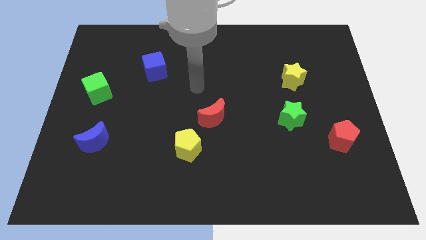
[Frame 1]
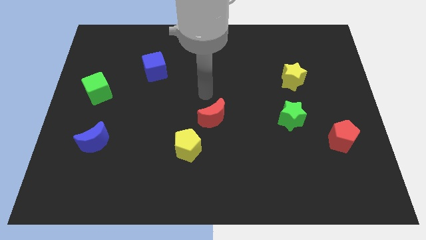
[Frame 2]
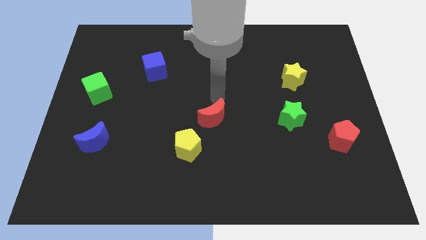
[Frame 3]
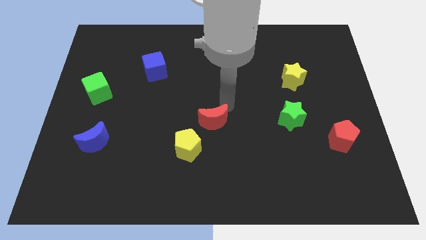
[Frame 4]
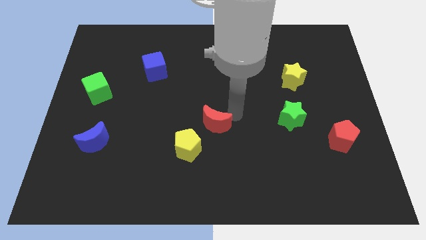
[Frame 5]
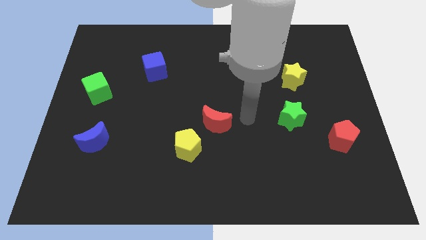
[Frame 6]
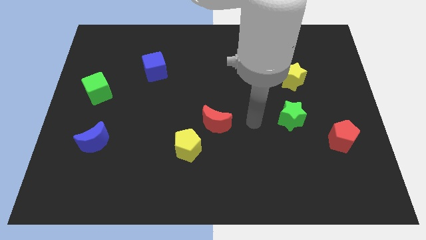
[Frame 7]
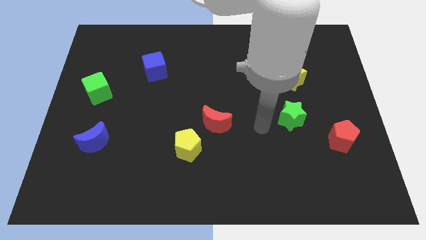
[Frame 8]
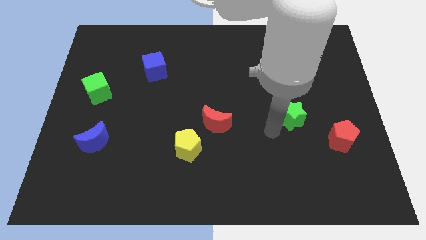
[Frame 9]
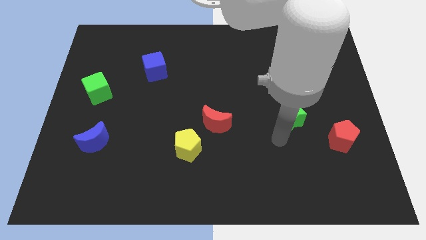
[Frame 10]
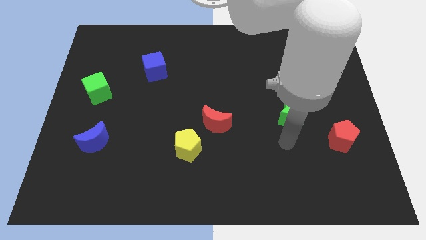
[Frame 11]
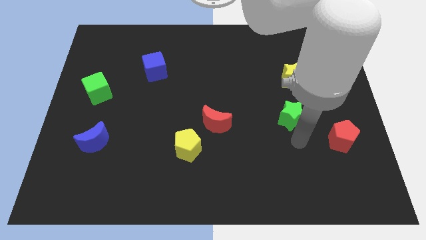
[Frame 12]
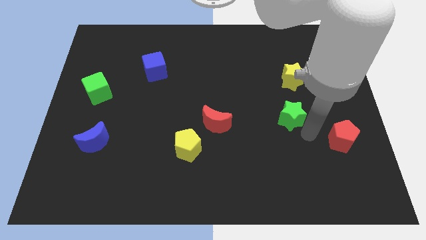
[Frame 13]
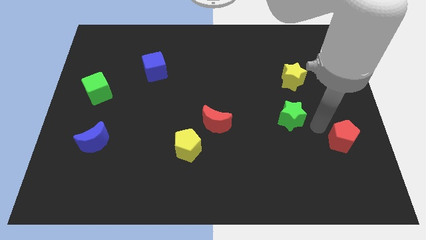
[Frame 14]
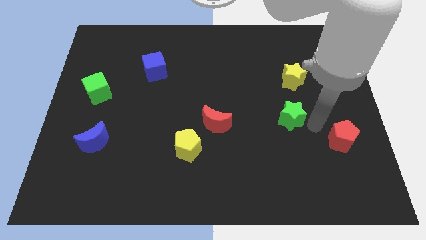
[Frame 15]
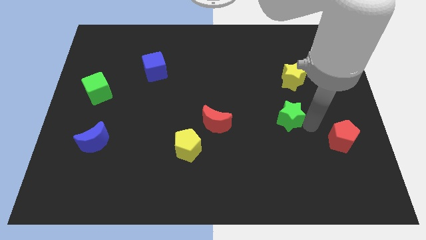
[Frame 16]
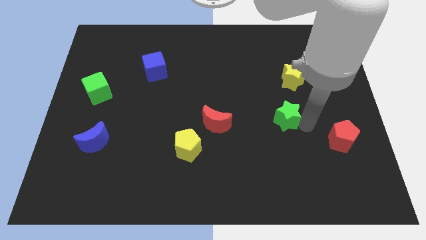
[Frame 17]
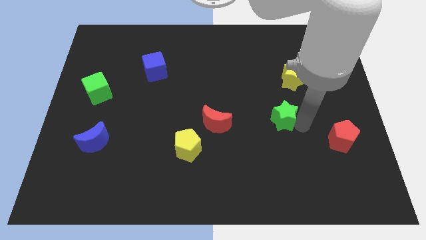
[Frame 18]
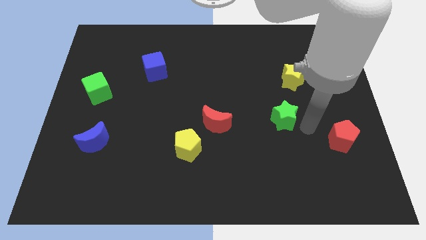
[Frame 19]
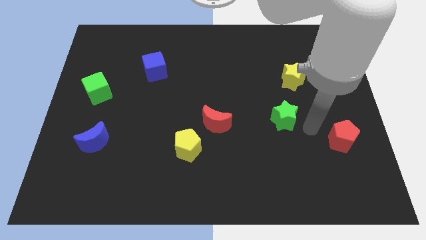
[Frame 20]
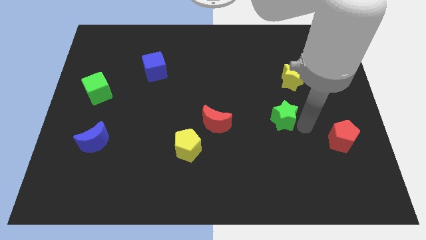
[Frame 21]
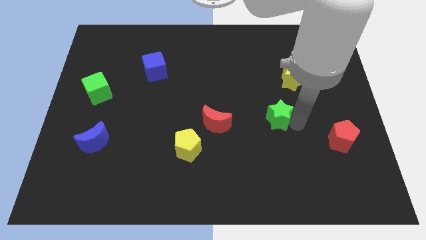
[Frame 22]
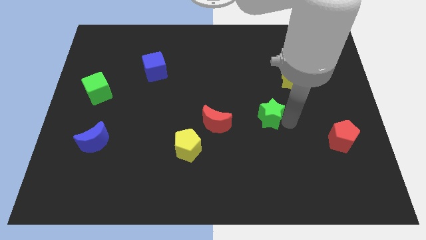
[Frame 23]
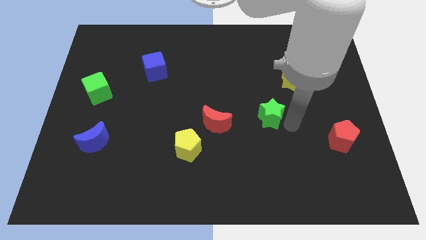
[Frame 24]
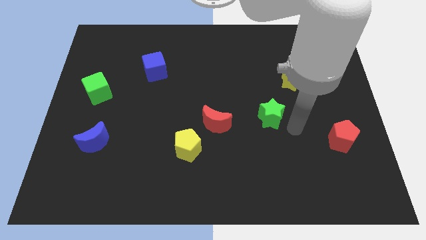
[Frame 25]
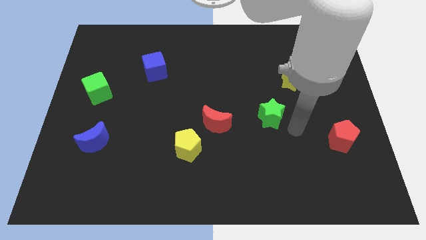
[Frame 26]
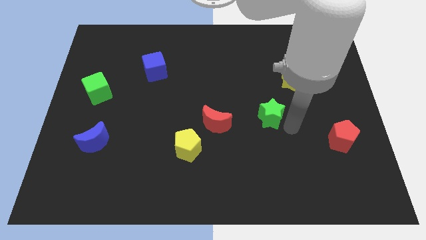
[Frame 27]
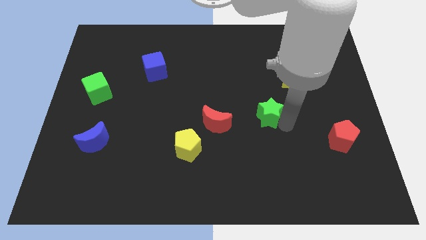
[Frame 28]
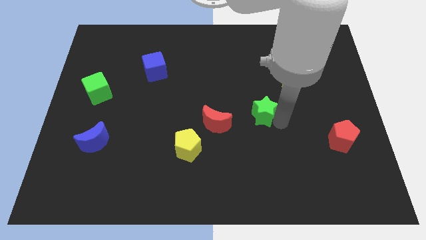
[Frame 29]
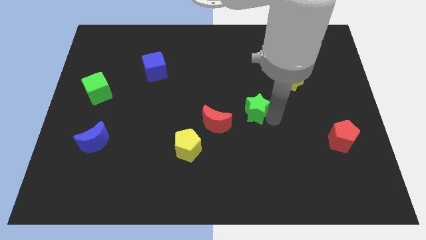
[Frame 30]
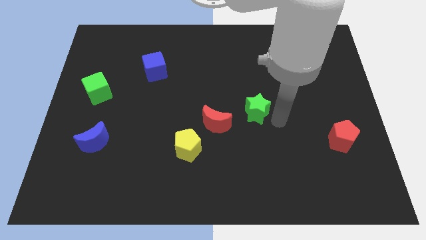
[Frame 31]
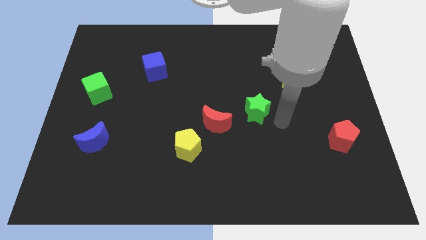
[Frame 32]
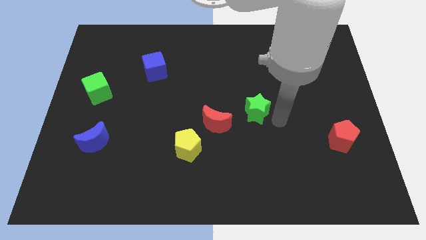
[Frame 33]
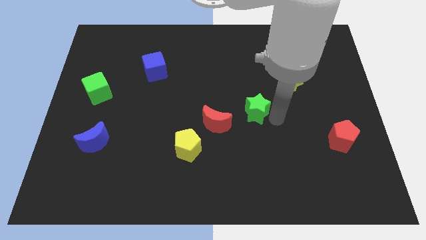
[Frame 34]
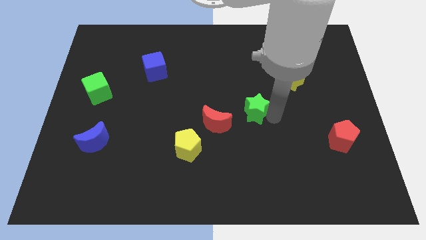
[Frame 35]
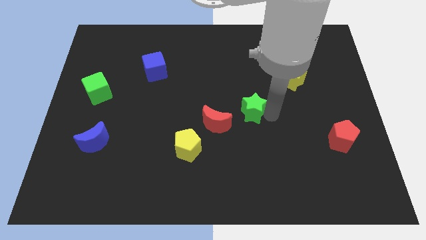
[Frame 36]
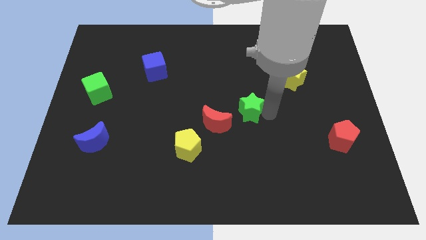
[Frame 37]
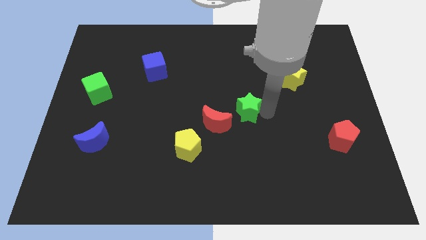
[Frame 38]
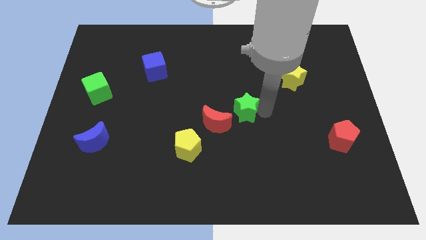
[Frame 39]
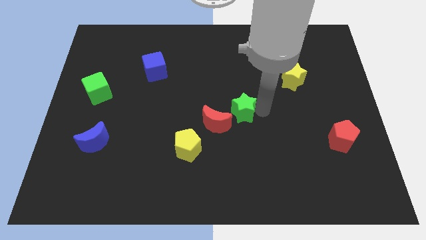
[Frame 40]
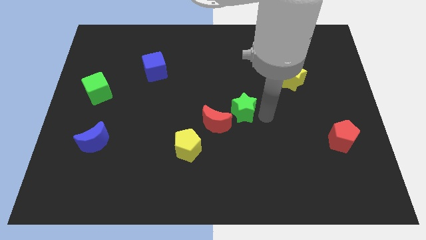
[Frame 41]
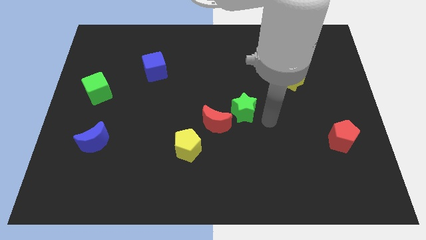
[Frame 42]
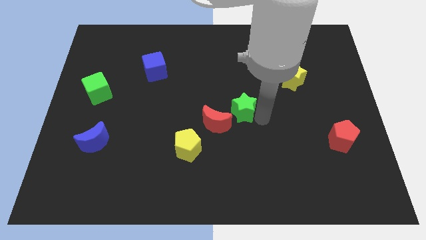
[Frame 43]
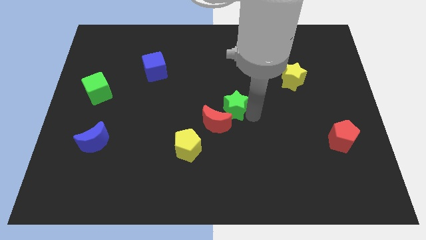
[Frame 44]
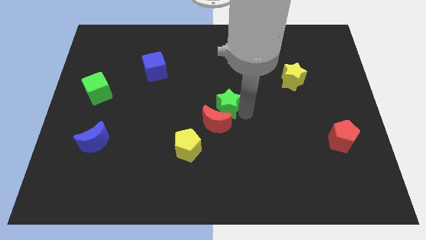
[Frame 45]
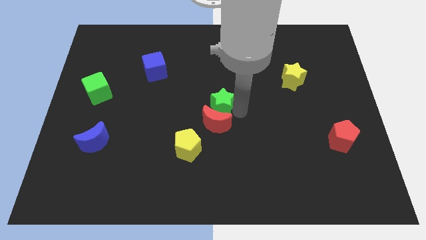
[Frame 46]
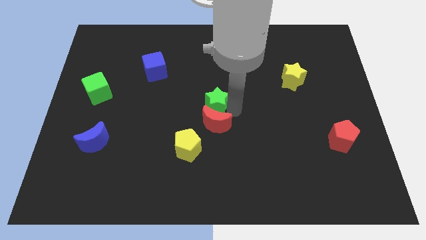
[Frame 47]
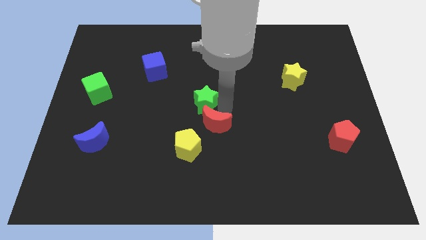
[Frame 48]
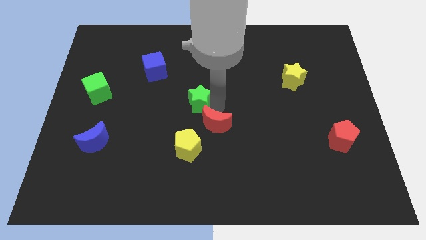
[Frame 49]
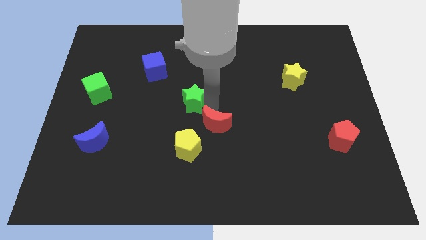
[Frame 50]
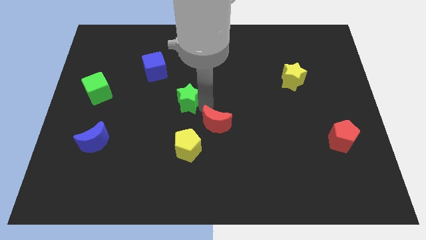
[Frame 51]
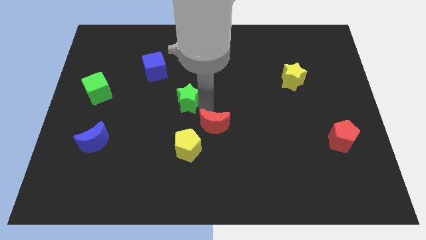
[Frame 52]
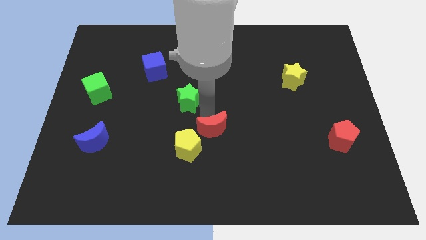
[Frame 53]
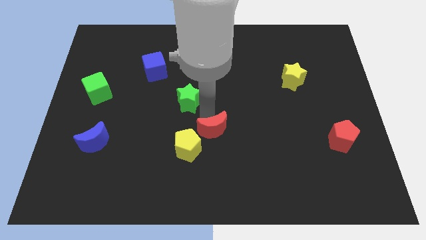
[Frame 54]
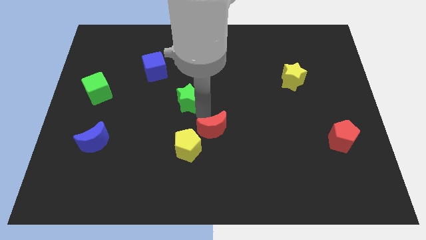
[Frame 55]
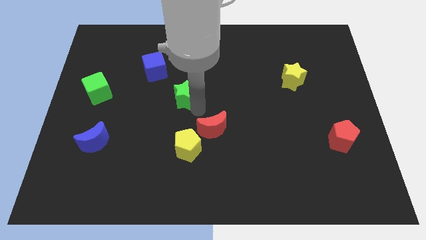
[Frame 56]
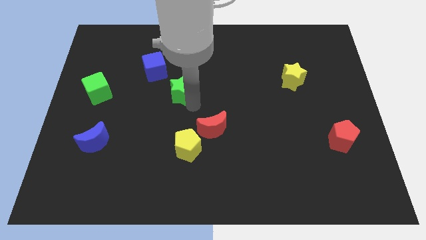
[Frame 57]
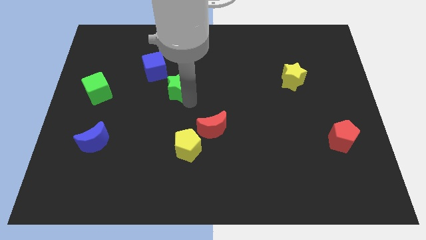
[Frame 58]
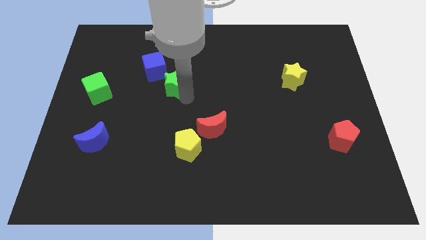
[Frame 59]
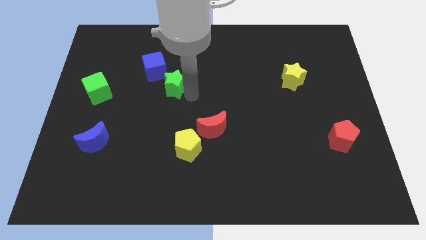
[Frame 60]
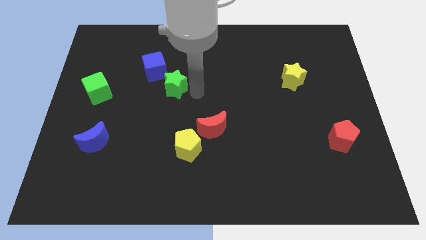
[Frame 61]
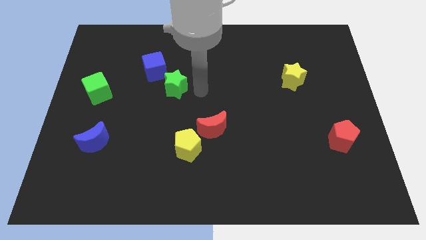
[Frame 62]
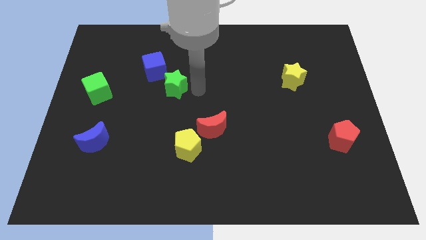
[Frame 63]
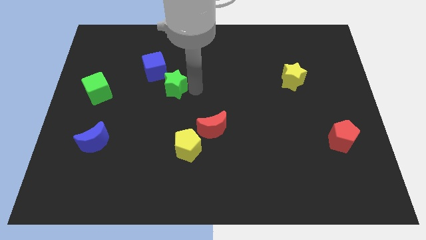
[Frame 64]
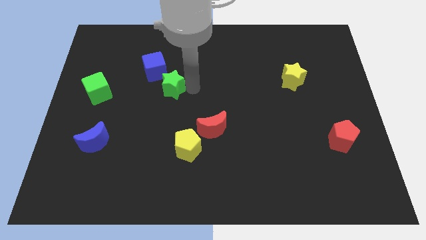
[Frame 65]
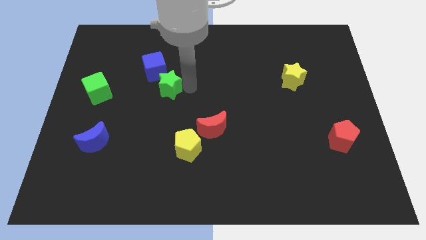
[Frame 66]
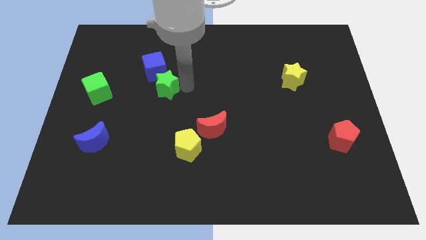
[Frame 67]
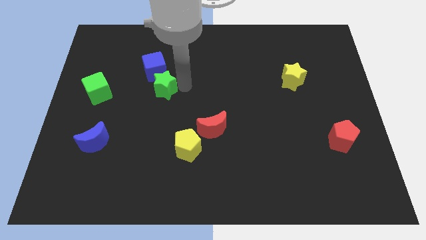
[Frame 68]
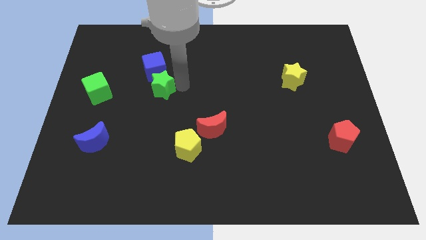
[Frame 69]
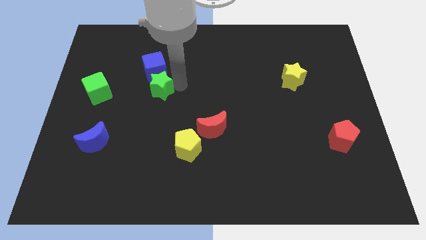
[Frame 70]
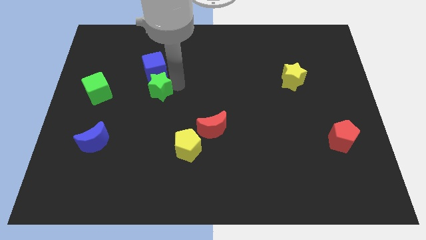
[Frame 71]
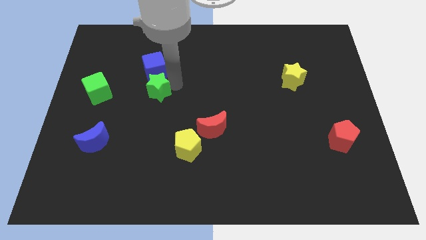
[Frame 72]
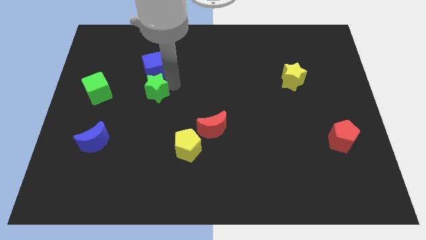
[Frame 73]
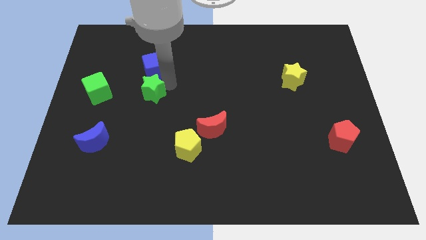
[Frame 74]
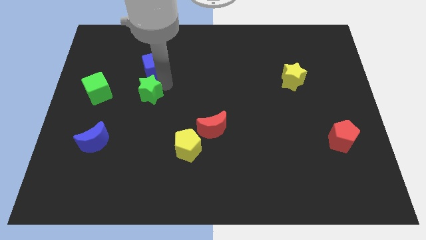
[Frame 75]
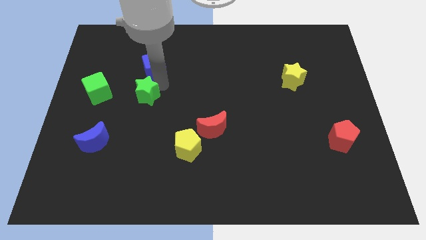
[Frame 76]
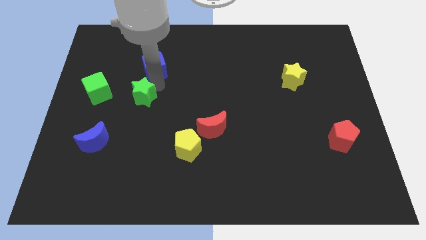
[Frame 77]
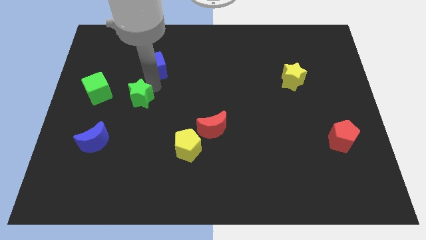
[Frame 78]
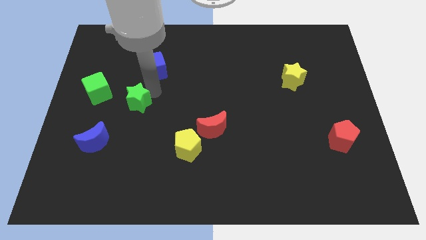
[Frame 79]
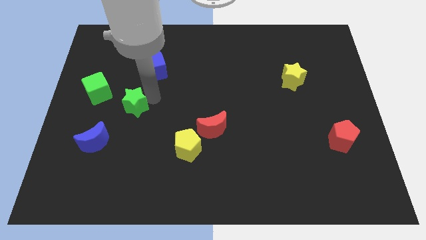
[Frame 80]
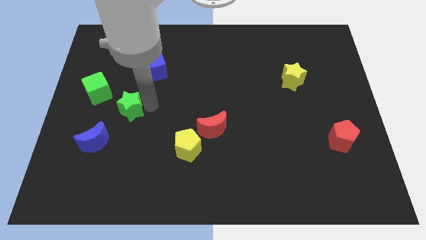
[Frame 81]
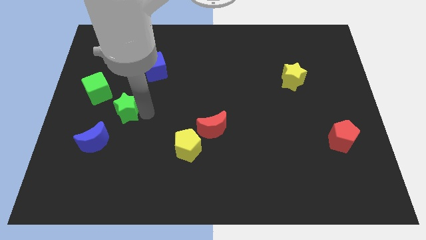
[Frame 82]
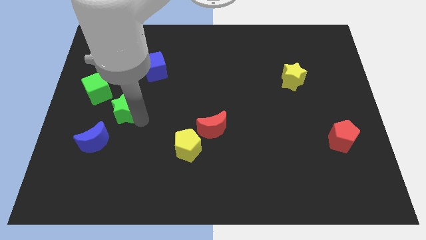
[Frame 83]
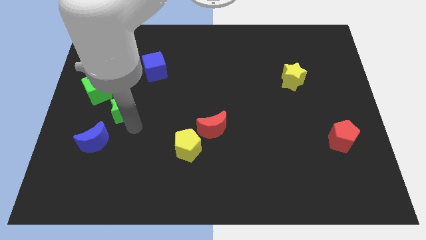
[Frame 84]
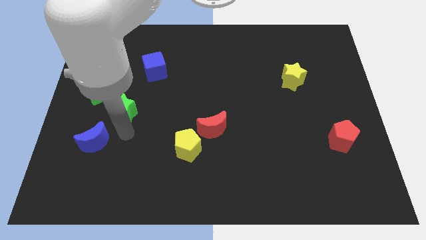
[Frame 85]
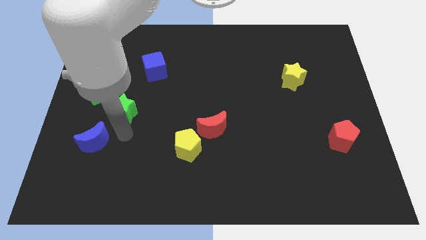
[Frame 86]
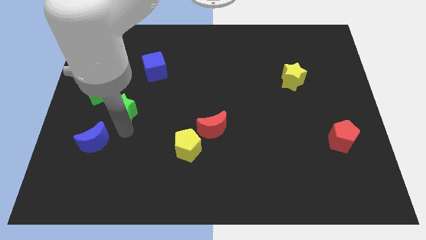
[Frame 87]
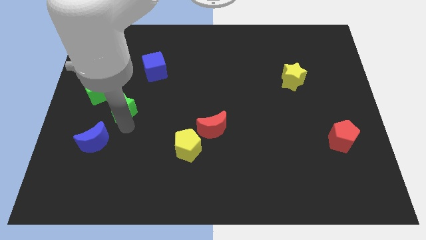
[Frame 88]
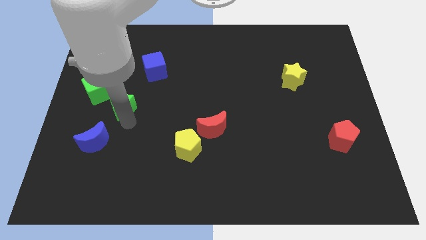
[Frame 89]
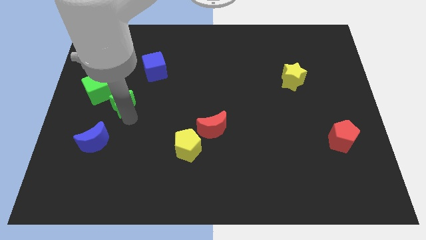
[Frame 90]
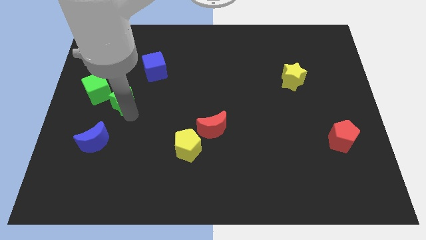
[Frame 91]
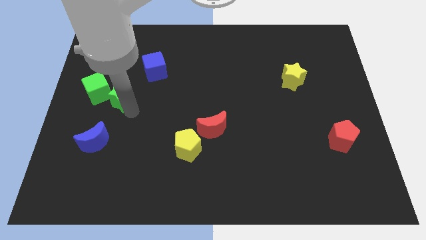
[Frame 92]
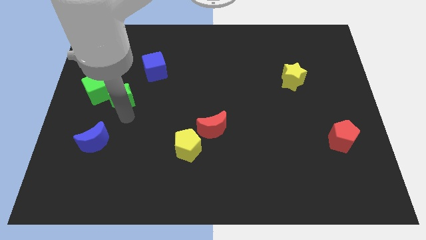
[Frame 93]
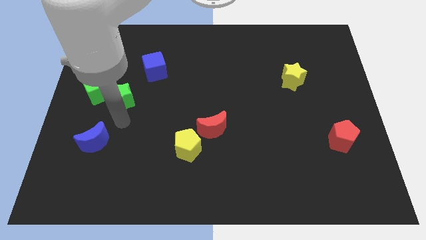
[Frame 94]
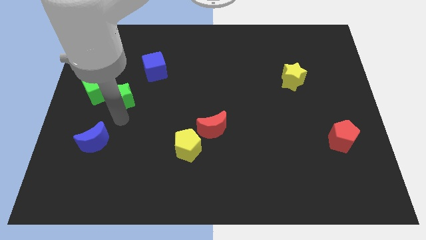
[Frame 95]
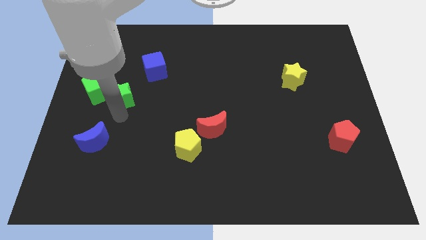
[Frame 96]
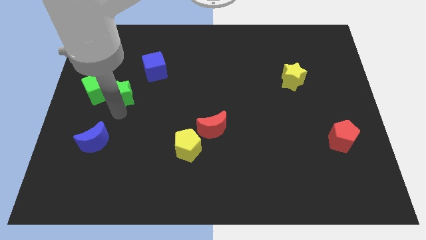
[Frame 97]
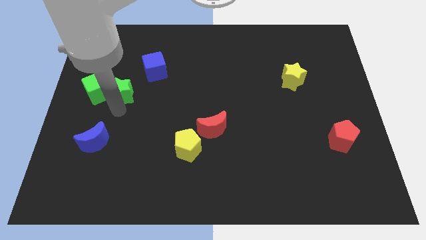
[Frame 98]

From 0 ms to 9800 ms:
put the green star to the top right side of the green cube
